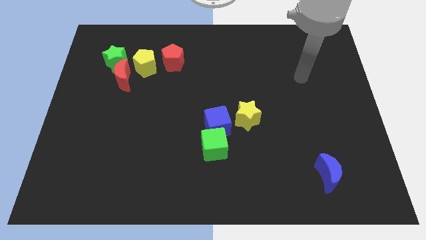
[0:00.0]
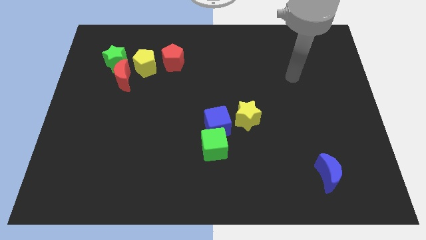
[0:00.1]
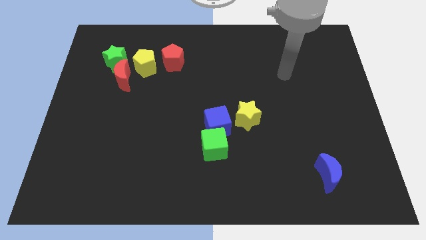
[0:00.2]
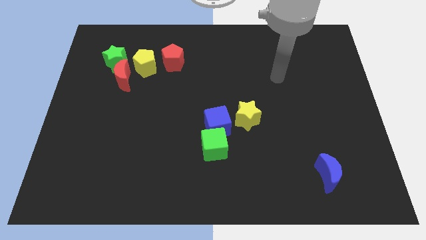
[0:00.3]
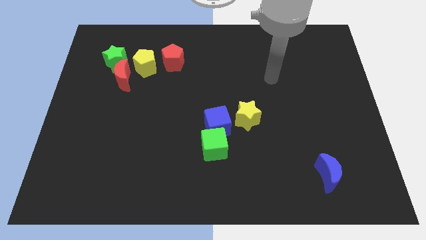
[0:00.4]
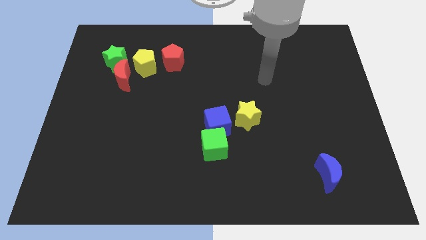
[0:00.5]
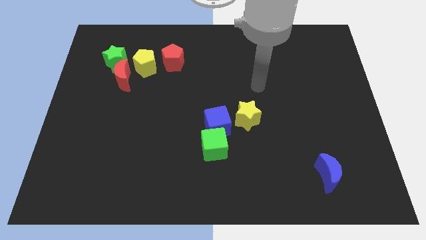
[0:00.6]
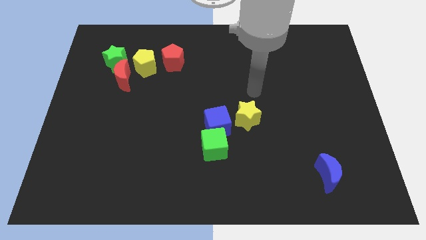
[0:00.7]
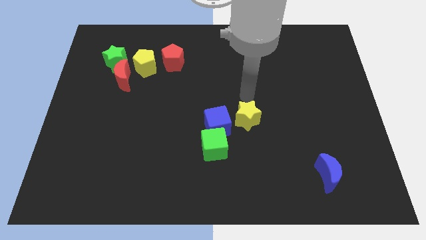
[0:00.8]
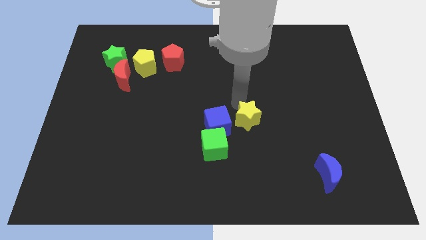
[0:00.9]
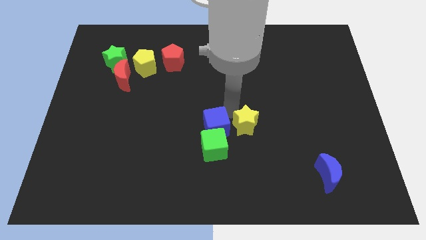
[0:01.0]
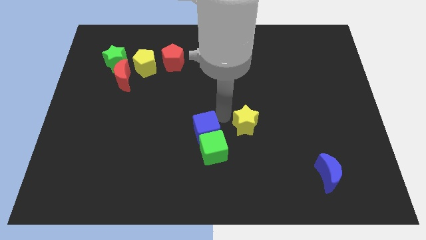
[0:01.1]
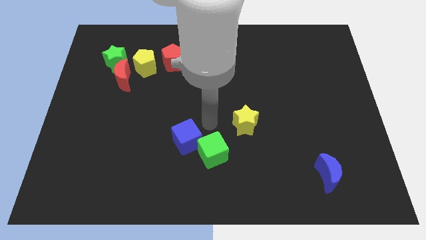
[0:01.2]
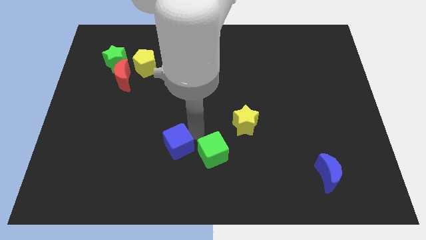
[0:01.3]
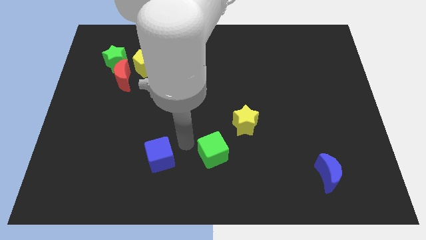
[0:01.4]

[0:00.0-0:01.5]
pull the green cube apart from the blue cube

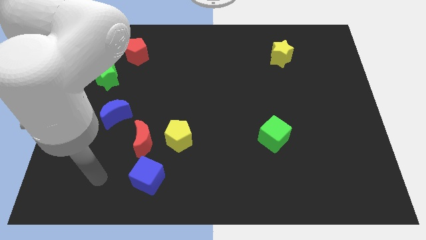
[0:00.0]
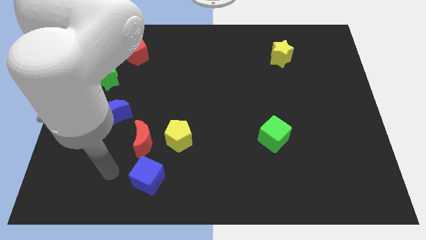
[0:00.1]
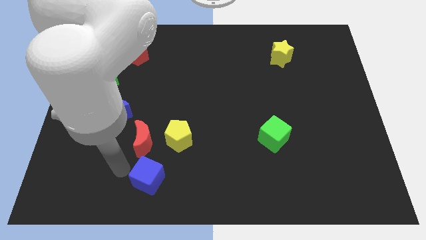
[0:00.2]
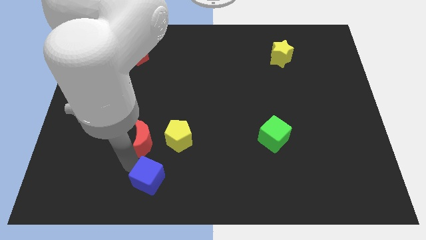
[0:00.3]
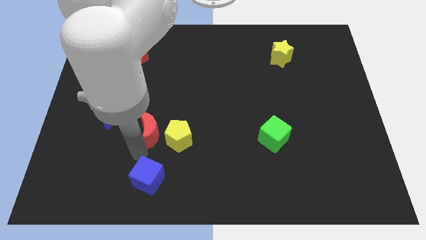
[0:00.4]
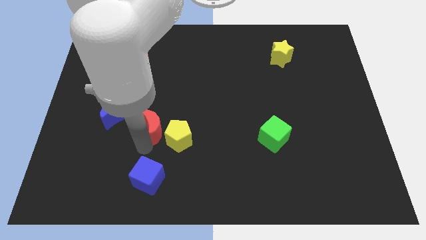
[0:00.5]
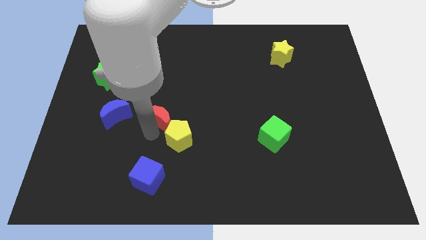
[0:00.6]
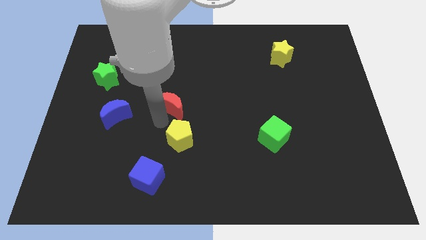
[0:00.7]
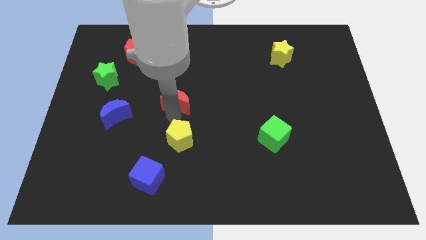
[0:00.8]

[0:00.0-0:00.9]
move the yellow pentagon away from the red moon

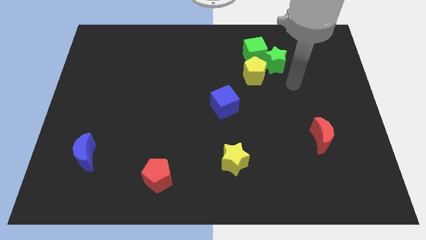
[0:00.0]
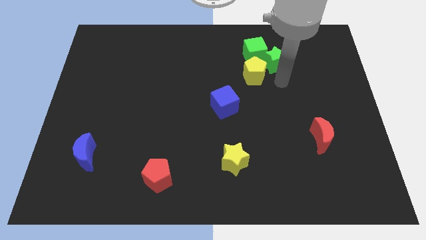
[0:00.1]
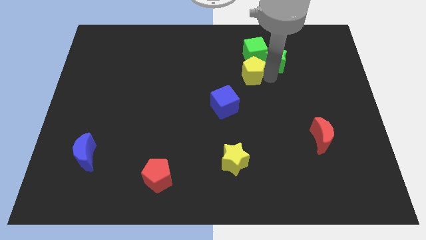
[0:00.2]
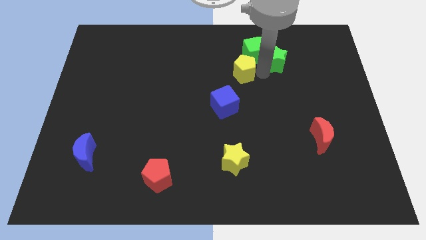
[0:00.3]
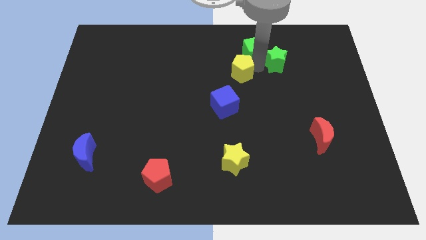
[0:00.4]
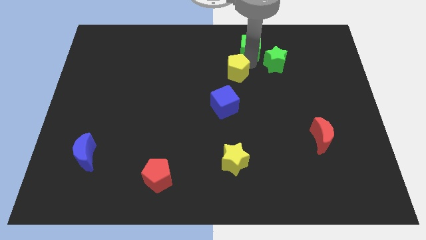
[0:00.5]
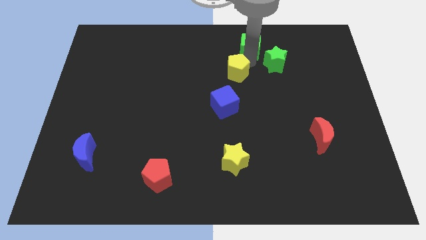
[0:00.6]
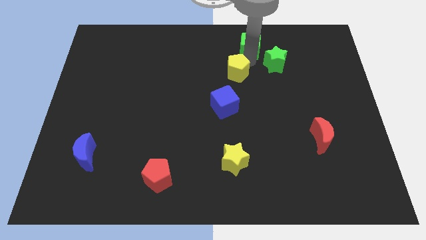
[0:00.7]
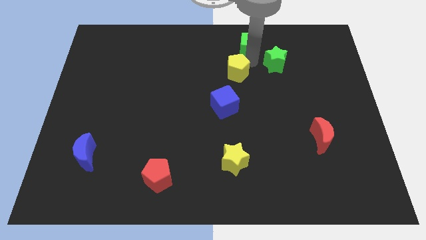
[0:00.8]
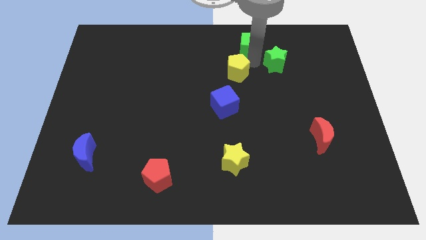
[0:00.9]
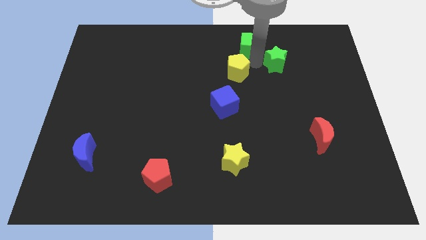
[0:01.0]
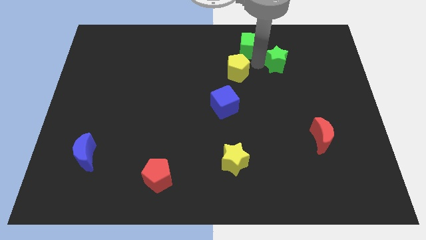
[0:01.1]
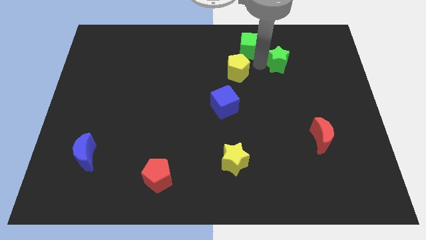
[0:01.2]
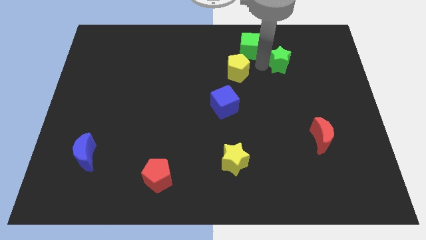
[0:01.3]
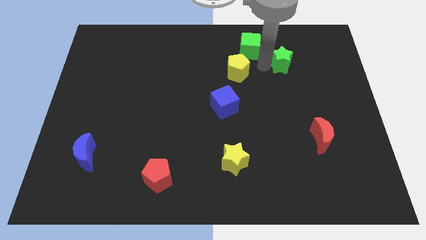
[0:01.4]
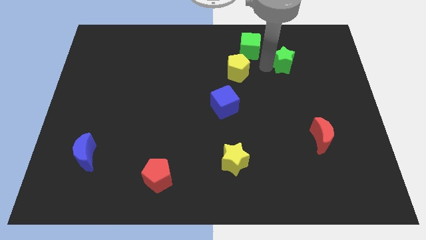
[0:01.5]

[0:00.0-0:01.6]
pull the green star apart from the green cube and yellow pentagon

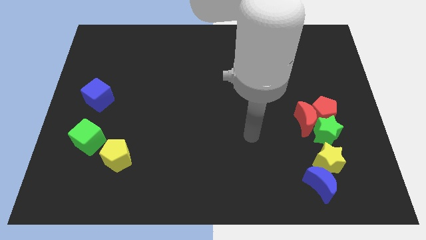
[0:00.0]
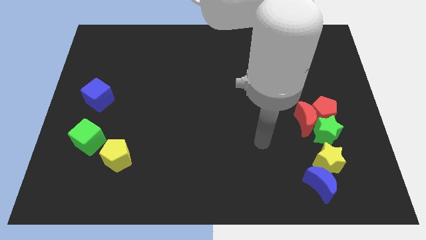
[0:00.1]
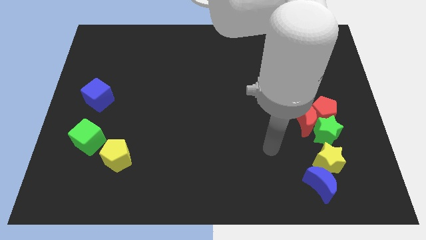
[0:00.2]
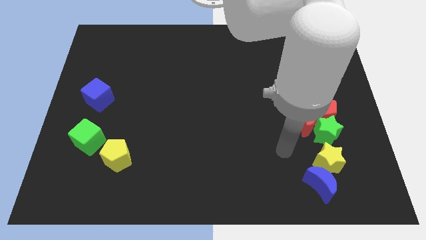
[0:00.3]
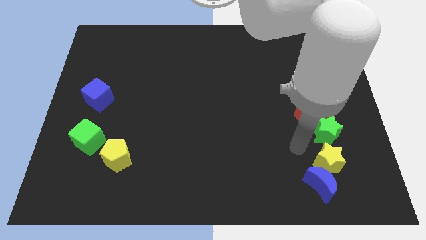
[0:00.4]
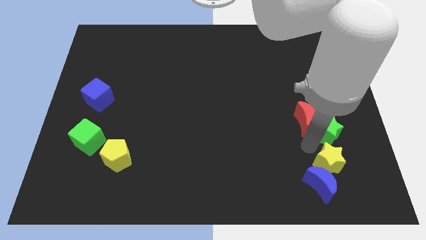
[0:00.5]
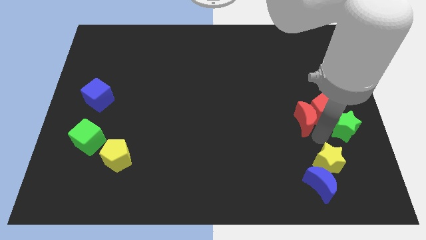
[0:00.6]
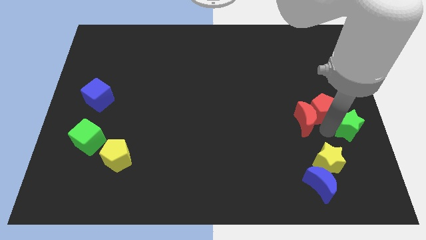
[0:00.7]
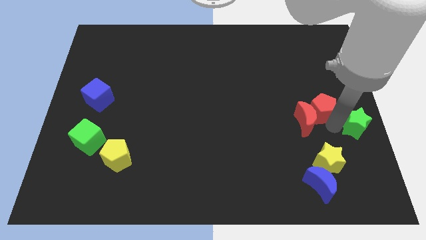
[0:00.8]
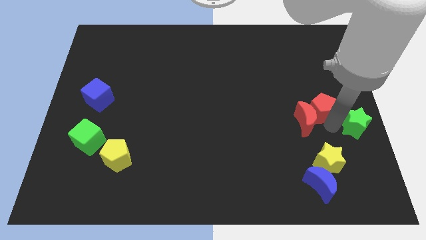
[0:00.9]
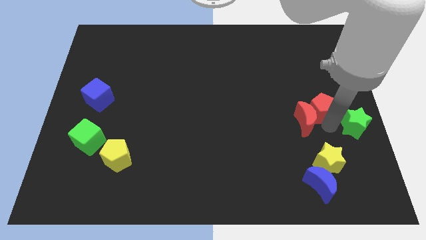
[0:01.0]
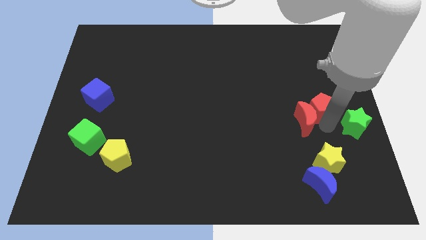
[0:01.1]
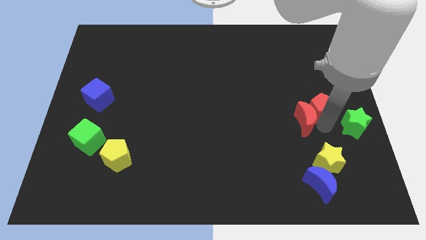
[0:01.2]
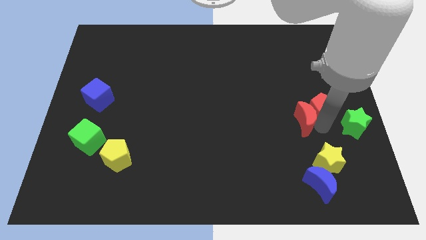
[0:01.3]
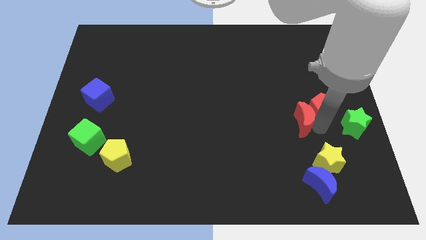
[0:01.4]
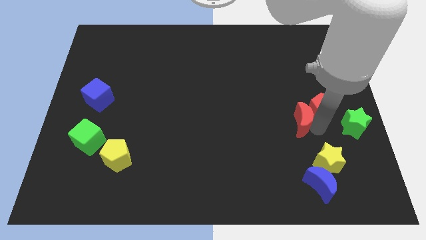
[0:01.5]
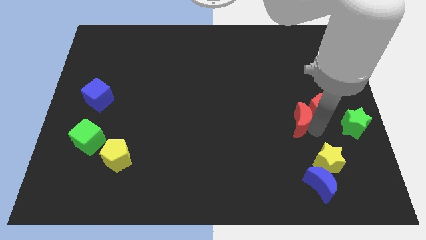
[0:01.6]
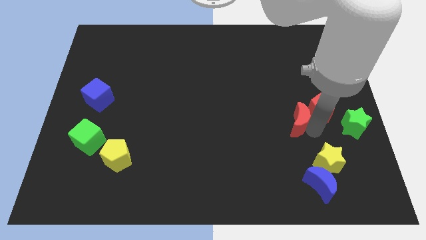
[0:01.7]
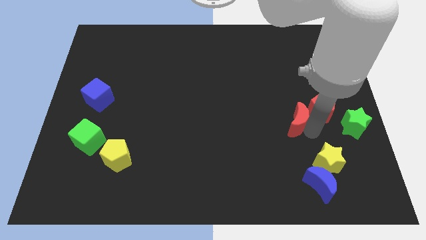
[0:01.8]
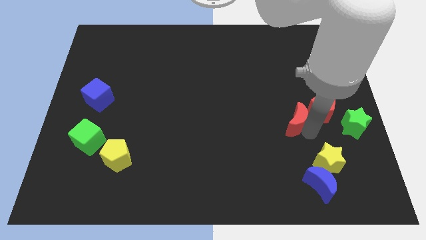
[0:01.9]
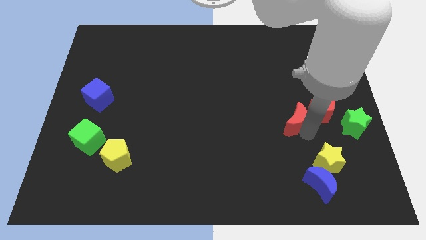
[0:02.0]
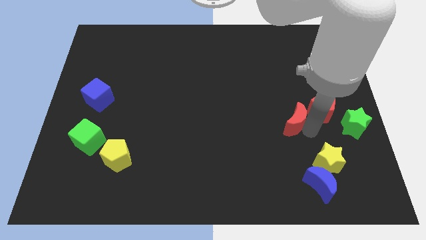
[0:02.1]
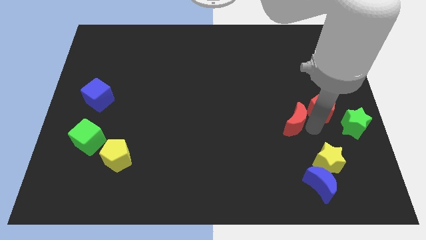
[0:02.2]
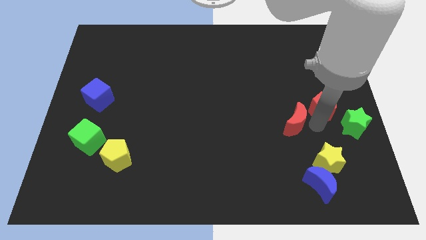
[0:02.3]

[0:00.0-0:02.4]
move the red moon away from the red pentagon and green star

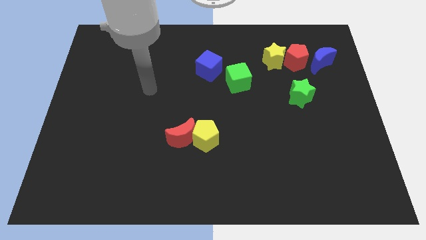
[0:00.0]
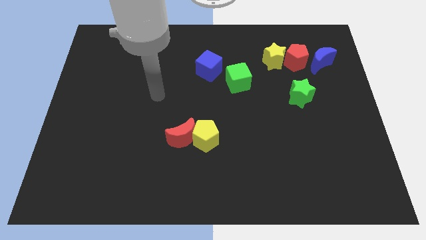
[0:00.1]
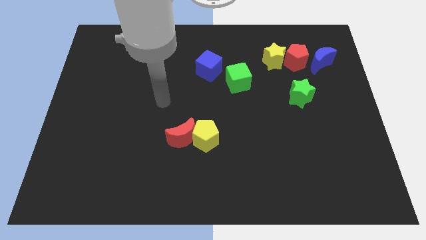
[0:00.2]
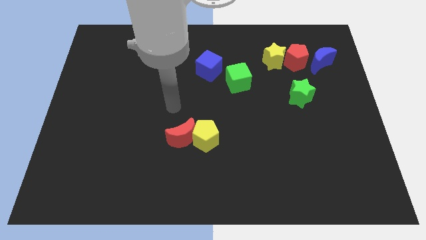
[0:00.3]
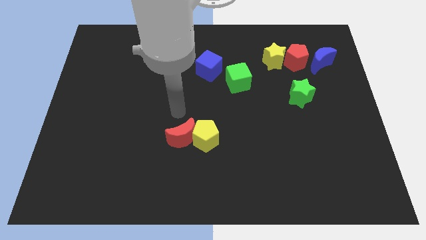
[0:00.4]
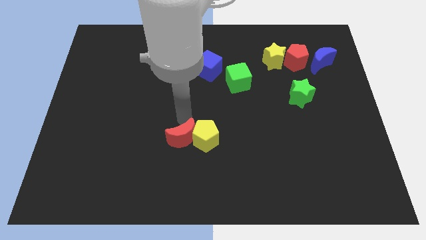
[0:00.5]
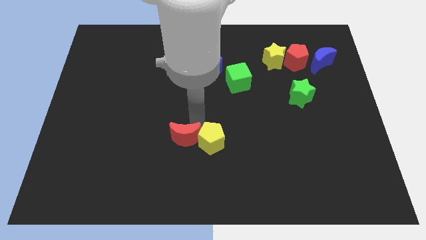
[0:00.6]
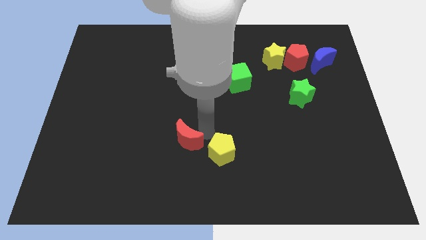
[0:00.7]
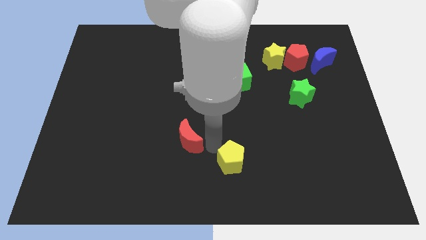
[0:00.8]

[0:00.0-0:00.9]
separate the red moon from the yellow pentagon

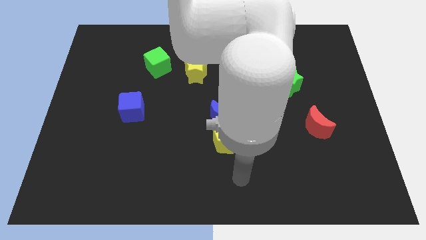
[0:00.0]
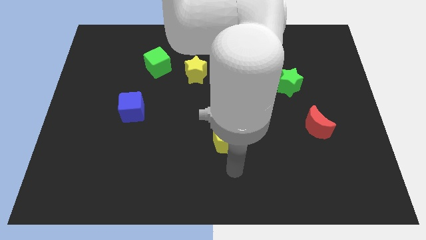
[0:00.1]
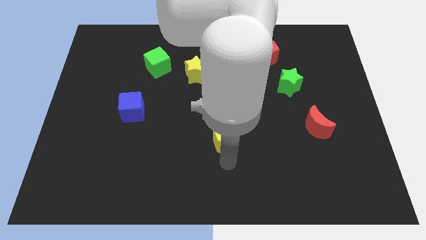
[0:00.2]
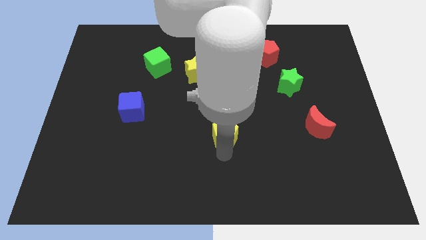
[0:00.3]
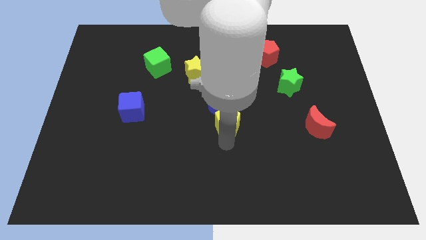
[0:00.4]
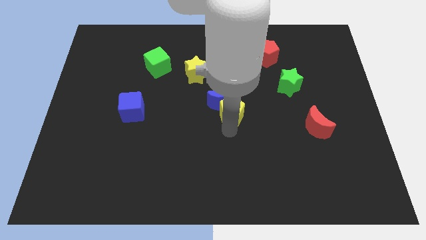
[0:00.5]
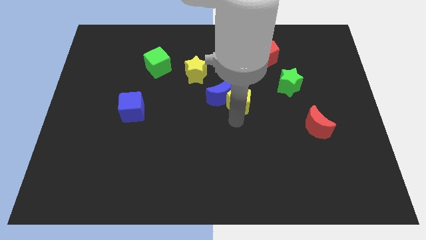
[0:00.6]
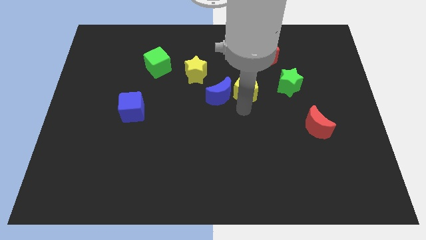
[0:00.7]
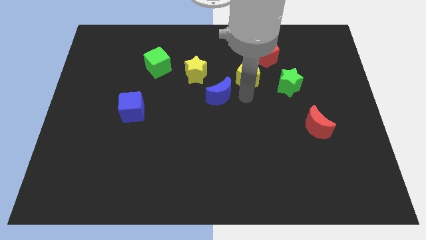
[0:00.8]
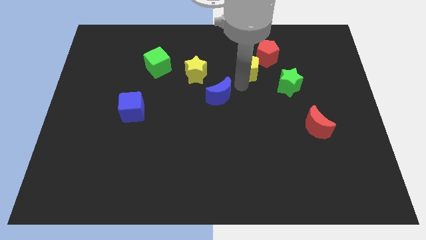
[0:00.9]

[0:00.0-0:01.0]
separate the blue moon from the yellow pentagon

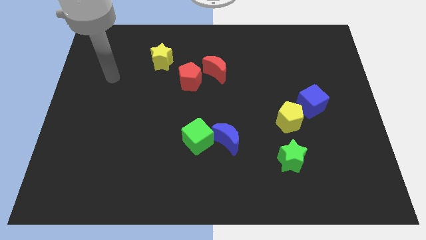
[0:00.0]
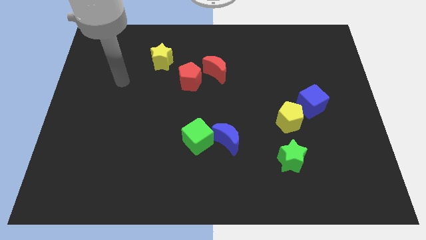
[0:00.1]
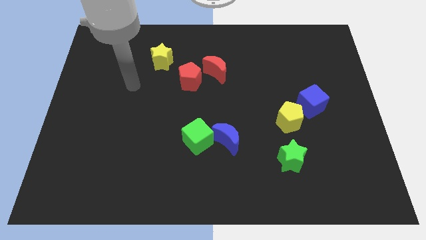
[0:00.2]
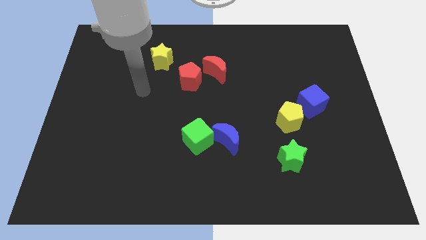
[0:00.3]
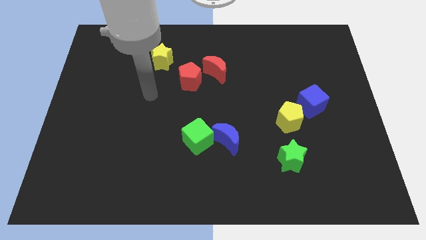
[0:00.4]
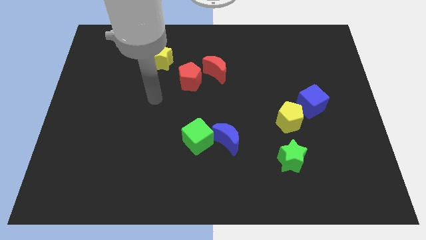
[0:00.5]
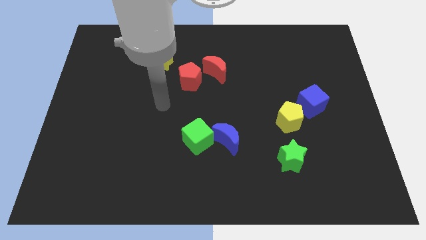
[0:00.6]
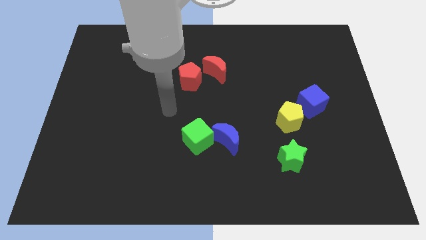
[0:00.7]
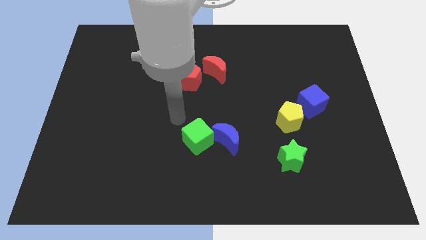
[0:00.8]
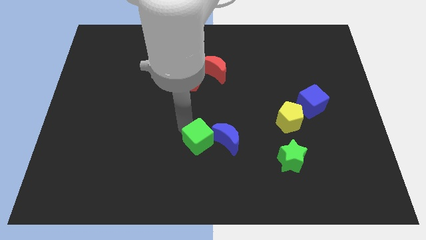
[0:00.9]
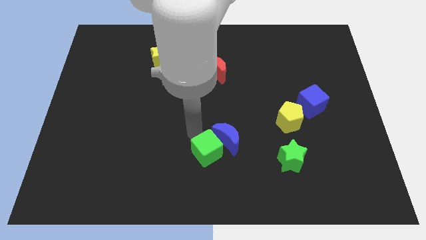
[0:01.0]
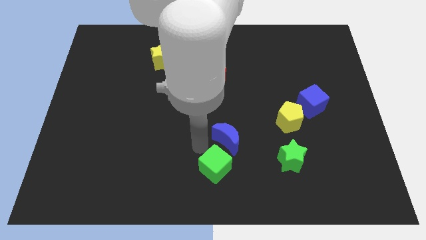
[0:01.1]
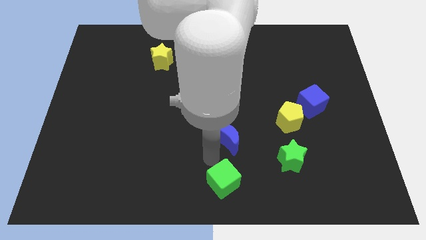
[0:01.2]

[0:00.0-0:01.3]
separate the blue moon from the green cube
